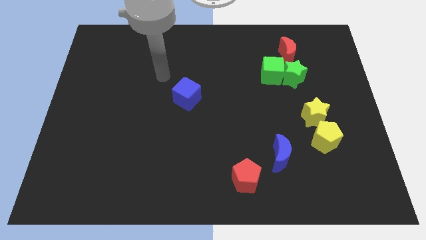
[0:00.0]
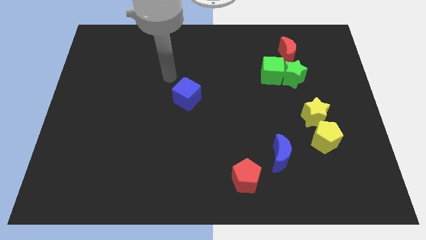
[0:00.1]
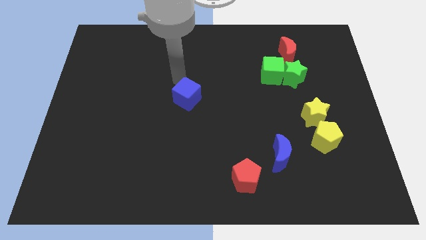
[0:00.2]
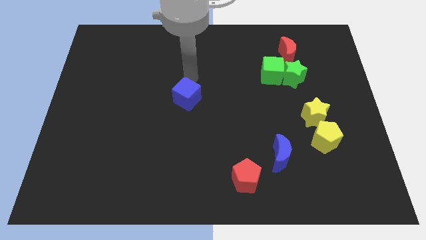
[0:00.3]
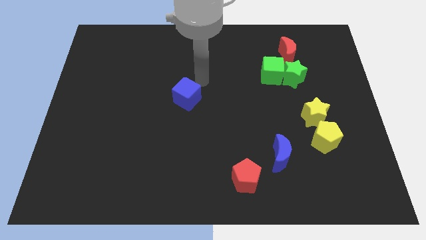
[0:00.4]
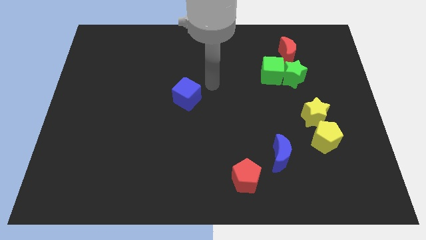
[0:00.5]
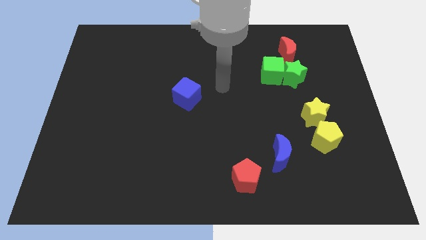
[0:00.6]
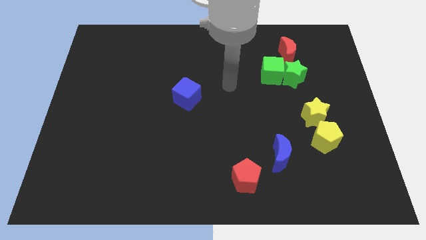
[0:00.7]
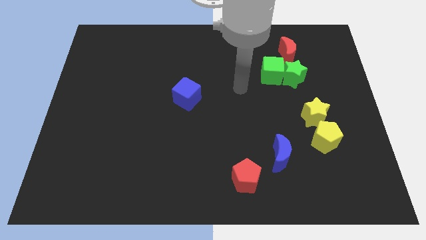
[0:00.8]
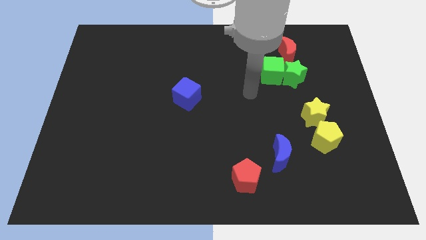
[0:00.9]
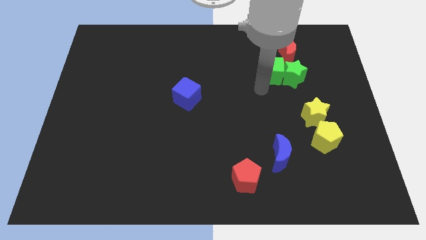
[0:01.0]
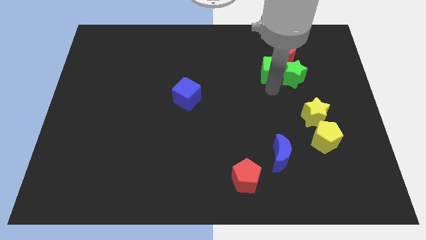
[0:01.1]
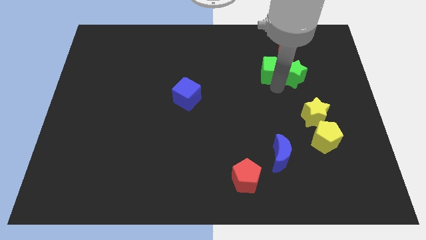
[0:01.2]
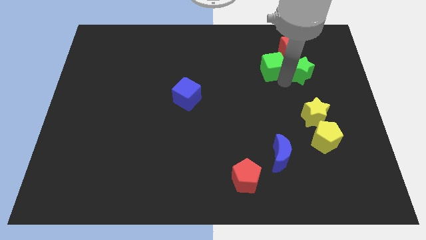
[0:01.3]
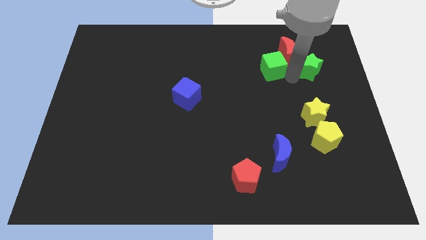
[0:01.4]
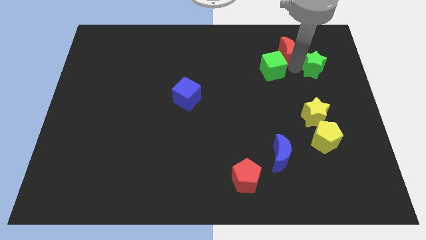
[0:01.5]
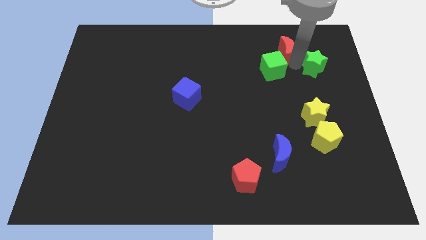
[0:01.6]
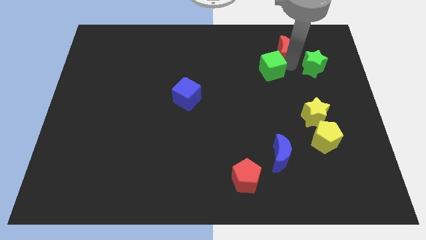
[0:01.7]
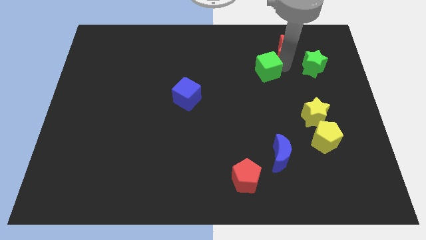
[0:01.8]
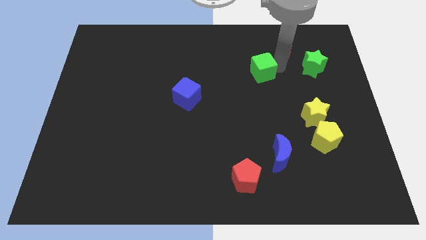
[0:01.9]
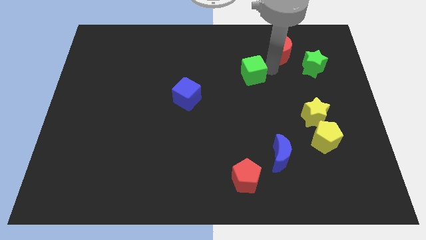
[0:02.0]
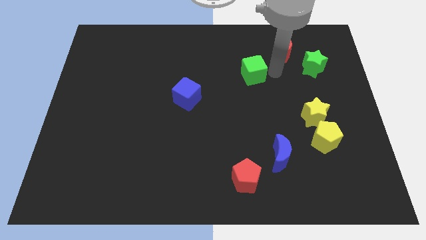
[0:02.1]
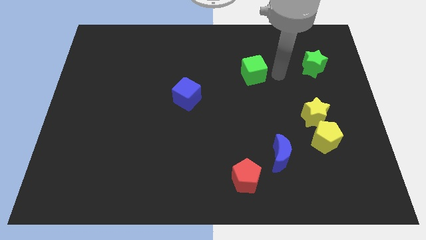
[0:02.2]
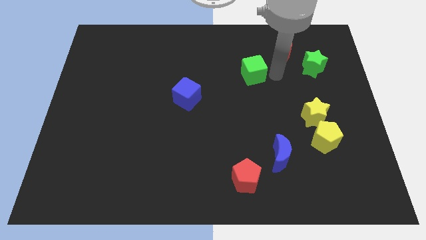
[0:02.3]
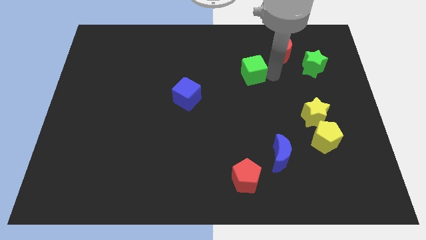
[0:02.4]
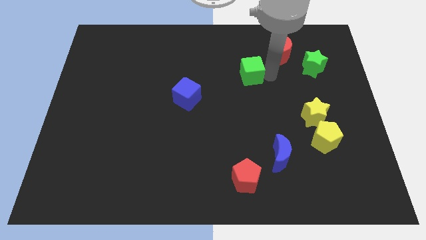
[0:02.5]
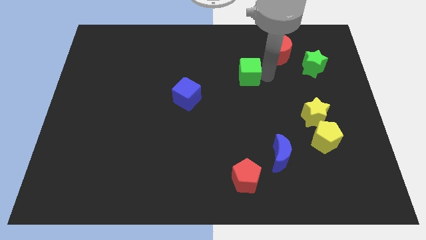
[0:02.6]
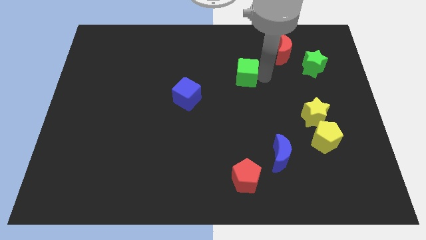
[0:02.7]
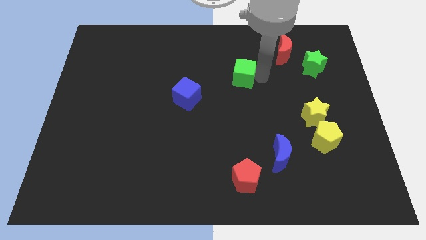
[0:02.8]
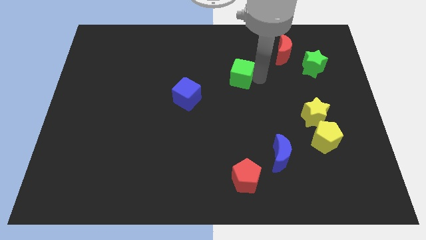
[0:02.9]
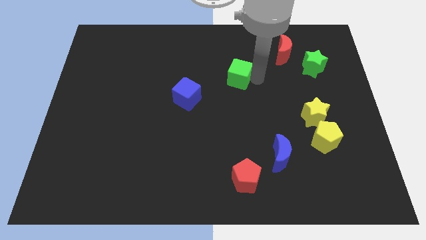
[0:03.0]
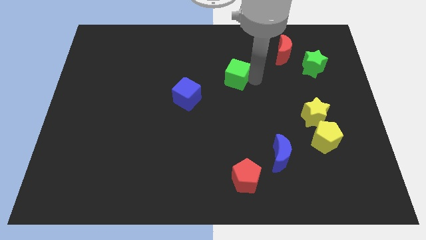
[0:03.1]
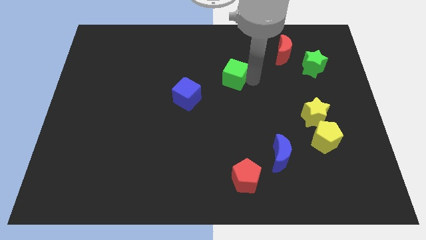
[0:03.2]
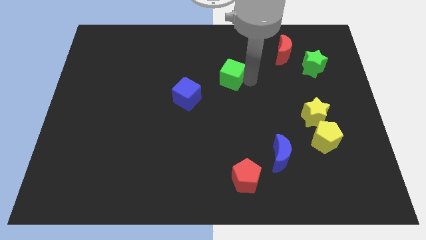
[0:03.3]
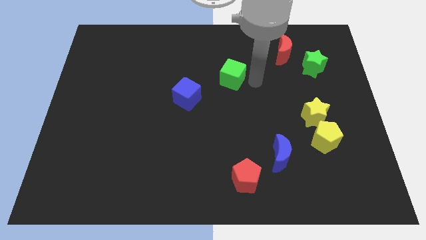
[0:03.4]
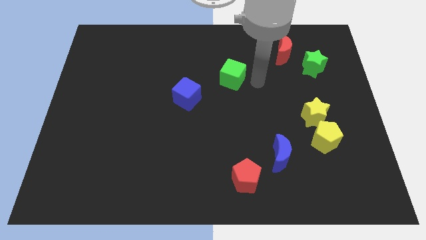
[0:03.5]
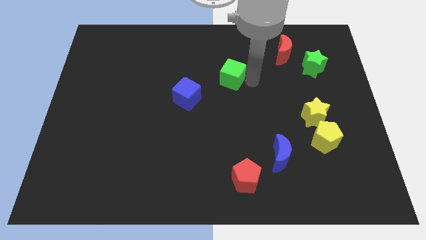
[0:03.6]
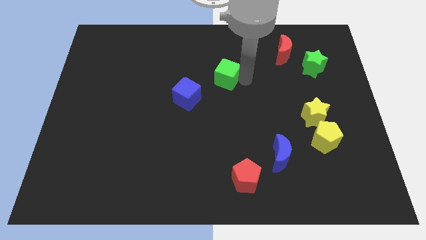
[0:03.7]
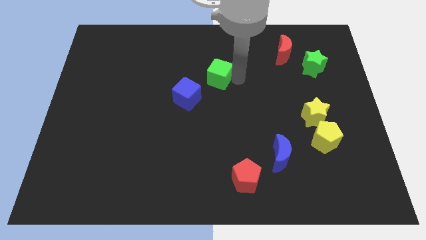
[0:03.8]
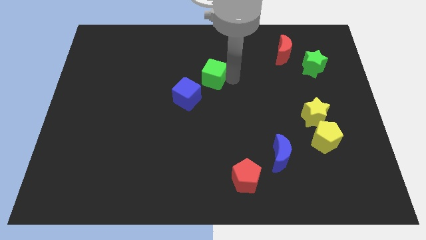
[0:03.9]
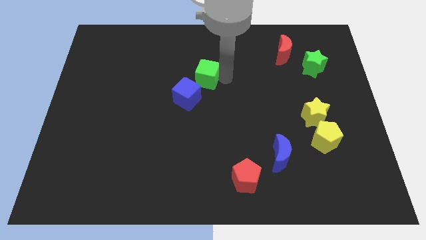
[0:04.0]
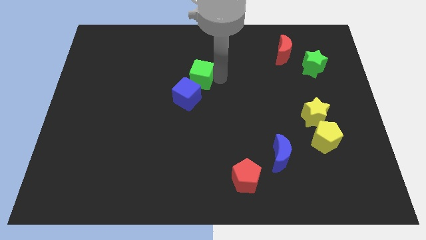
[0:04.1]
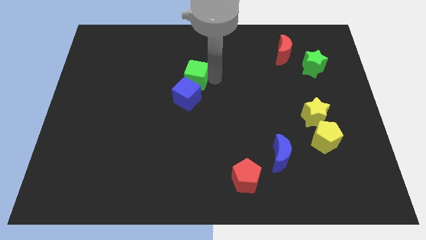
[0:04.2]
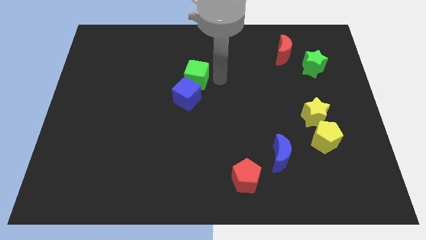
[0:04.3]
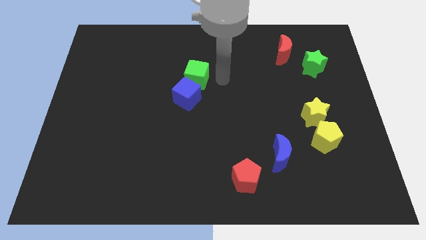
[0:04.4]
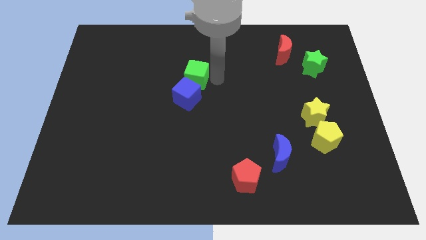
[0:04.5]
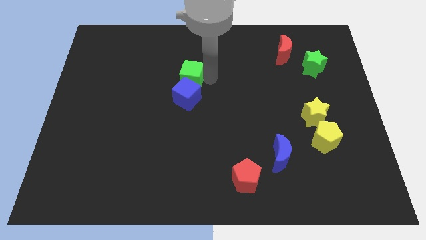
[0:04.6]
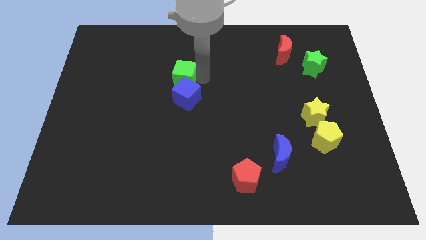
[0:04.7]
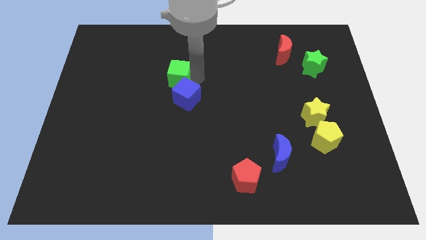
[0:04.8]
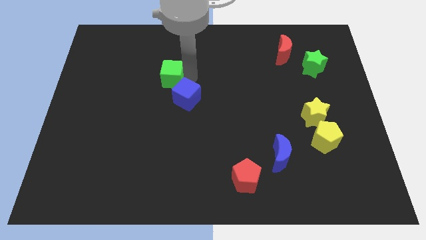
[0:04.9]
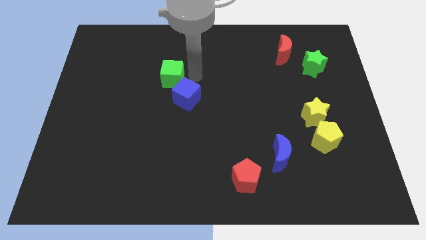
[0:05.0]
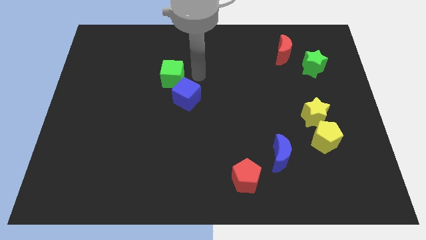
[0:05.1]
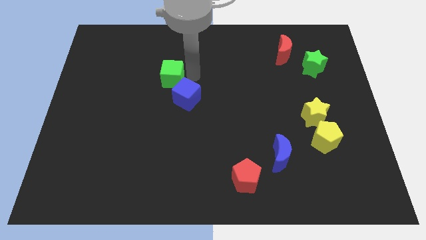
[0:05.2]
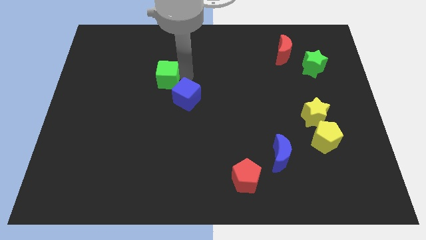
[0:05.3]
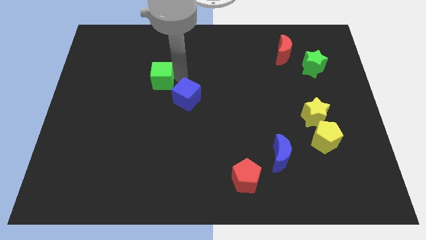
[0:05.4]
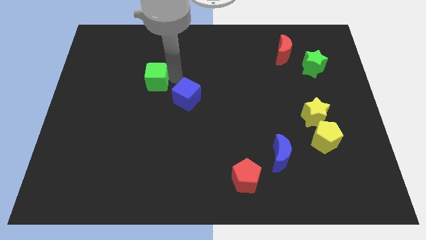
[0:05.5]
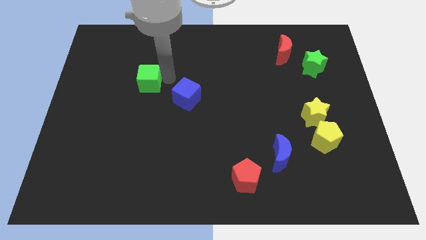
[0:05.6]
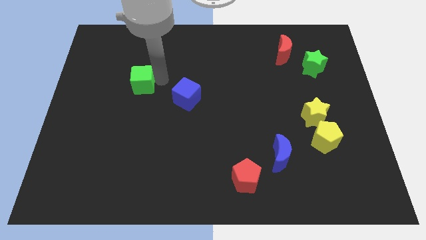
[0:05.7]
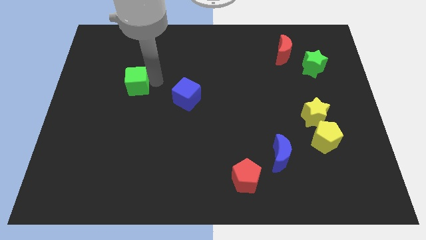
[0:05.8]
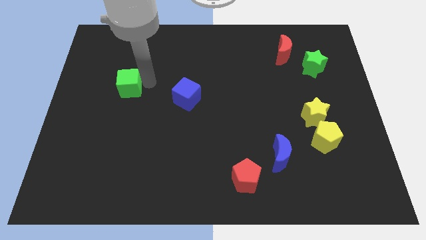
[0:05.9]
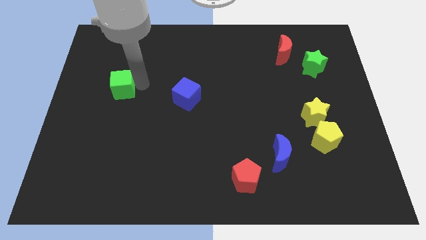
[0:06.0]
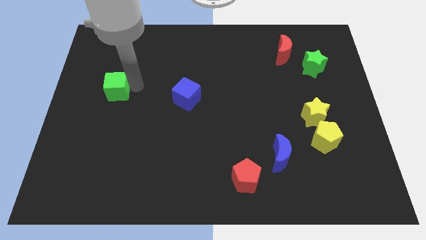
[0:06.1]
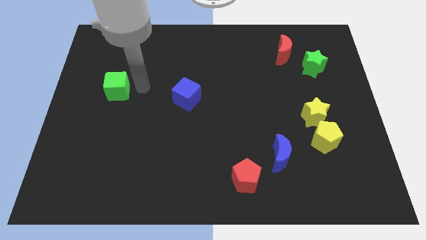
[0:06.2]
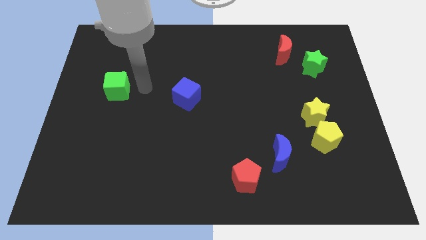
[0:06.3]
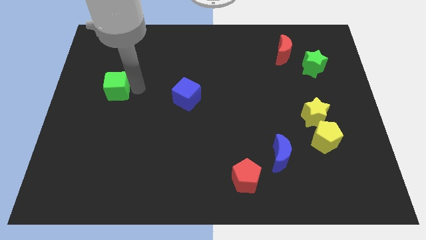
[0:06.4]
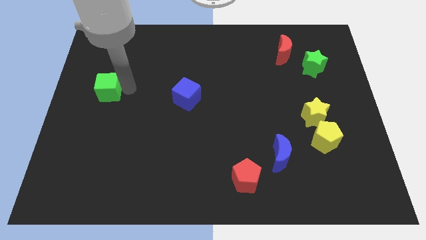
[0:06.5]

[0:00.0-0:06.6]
put the green cube to the left side of the board
